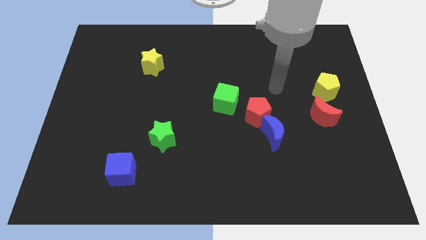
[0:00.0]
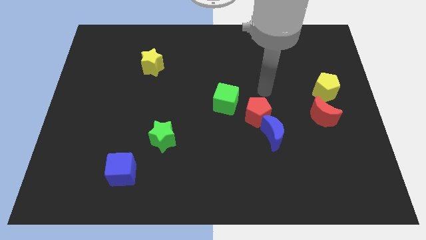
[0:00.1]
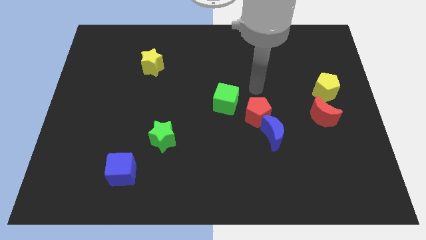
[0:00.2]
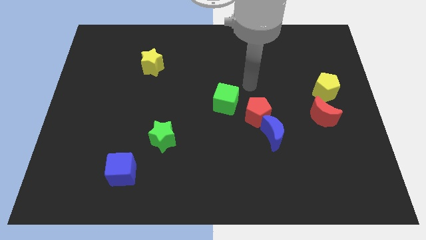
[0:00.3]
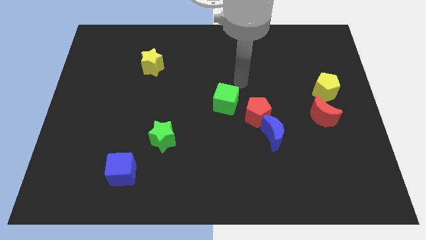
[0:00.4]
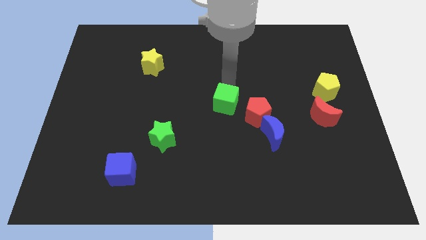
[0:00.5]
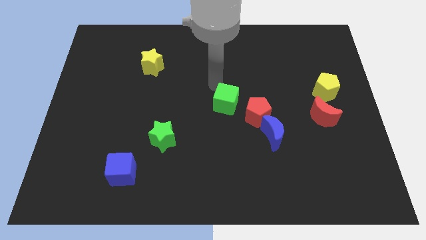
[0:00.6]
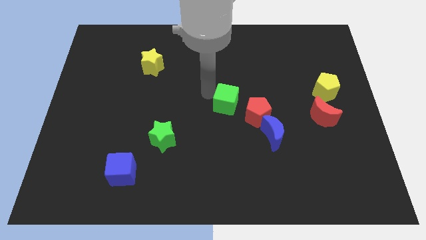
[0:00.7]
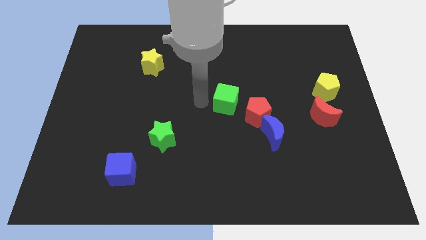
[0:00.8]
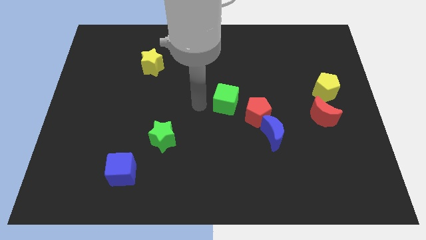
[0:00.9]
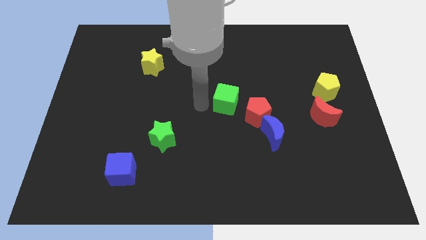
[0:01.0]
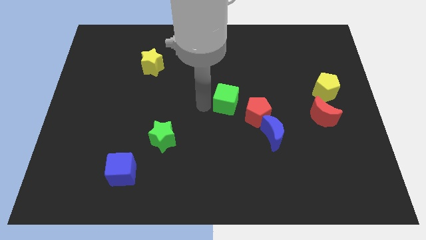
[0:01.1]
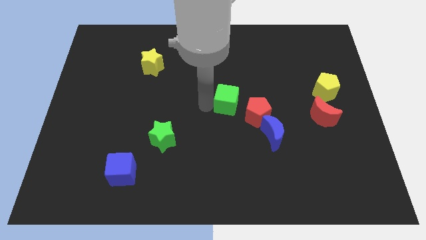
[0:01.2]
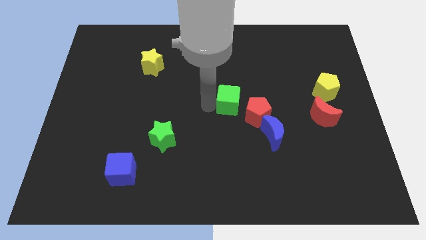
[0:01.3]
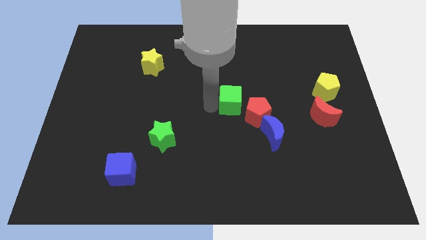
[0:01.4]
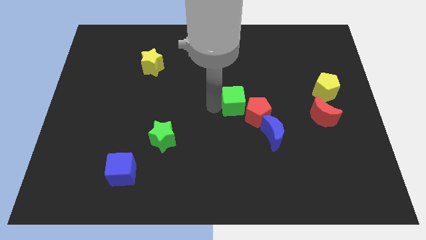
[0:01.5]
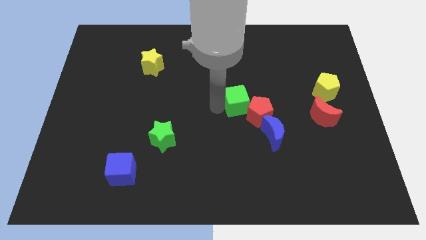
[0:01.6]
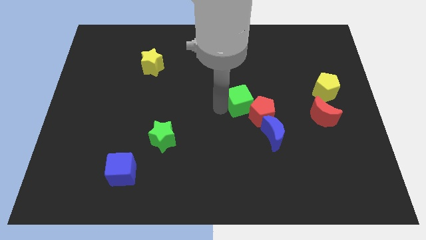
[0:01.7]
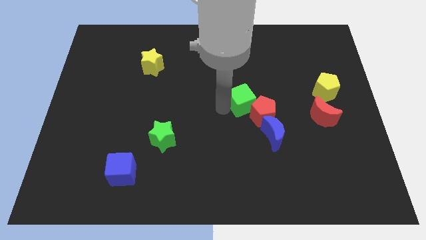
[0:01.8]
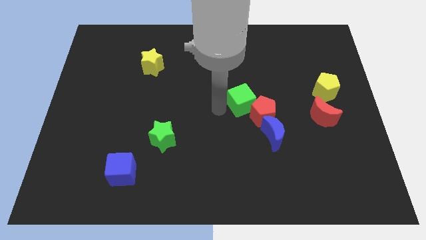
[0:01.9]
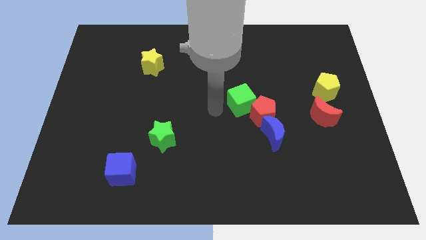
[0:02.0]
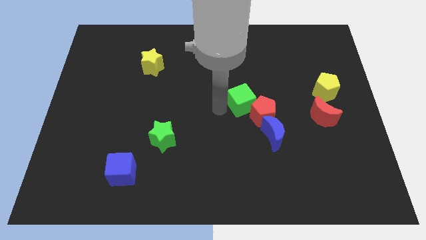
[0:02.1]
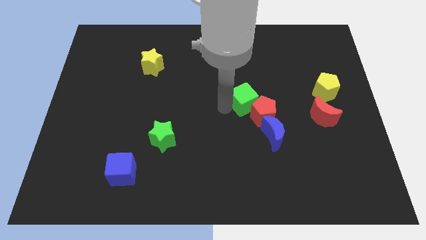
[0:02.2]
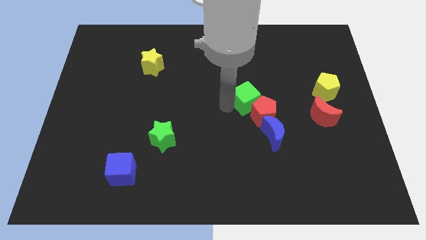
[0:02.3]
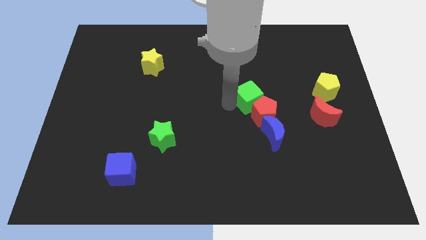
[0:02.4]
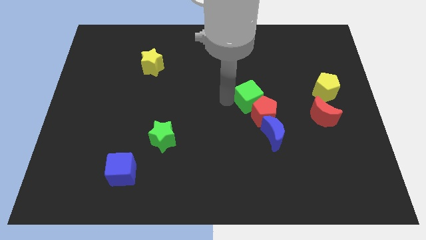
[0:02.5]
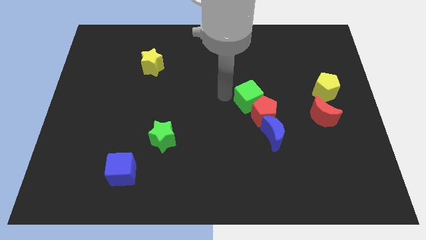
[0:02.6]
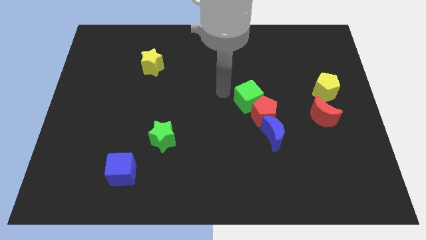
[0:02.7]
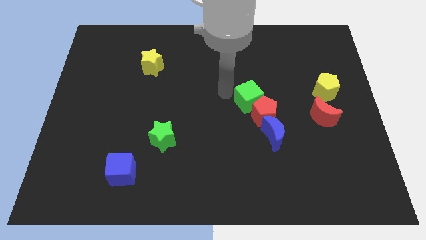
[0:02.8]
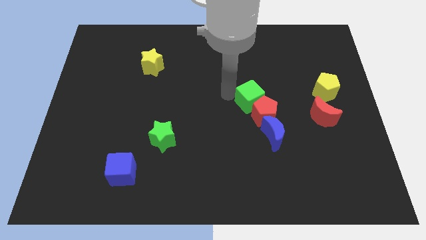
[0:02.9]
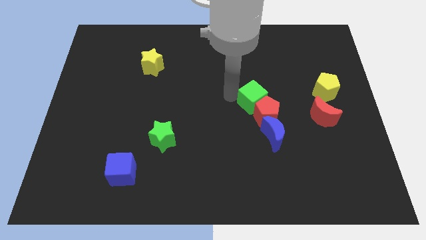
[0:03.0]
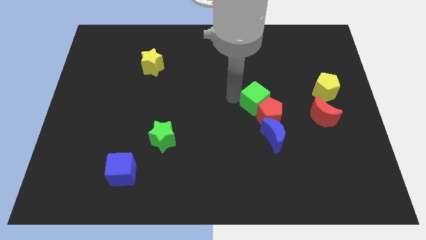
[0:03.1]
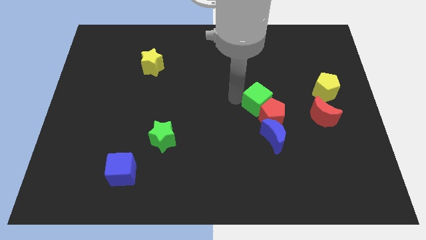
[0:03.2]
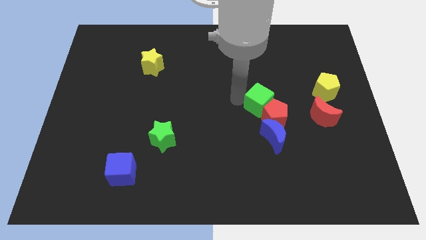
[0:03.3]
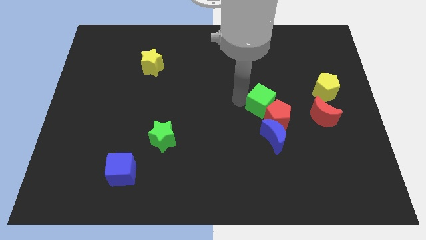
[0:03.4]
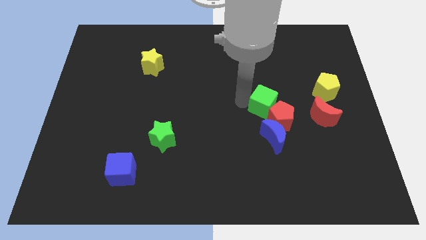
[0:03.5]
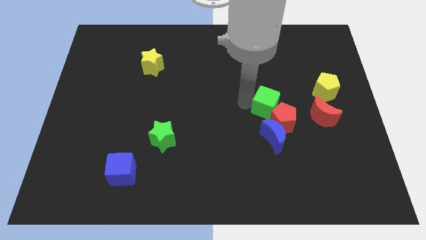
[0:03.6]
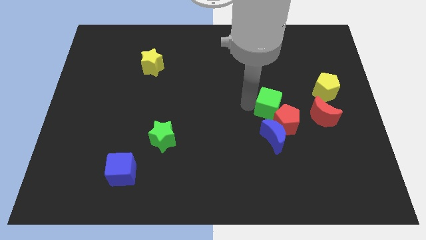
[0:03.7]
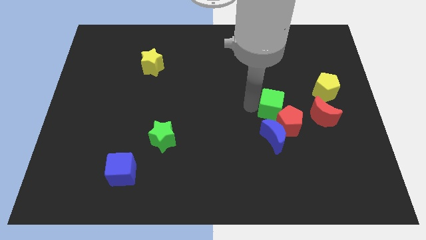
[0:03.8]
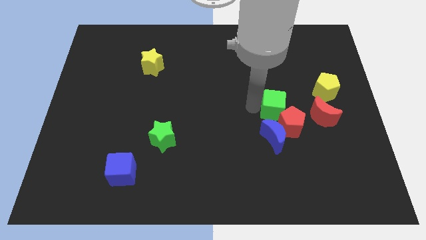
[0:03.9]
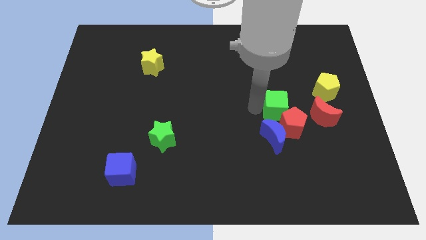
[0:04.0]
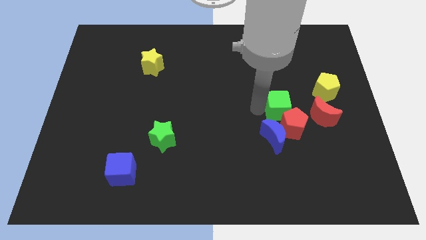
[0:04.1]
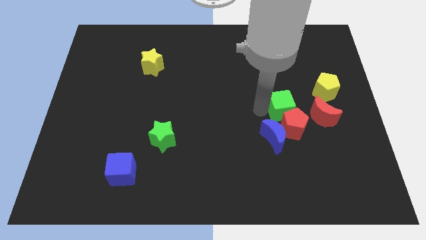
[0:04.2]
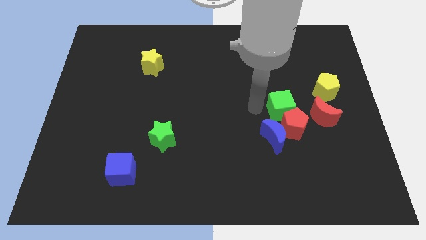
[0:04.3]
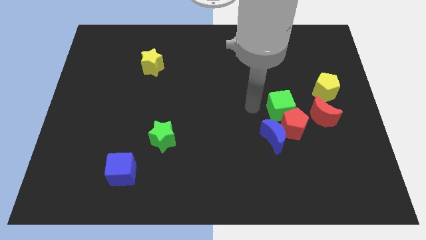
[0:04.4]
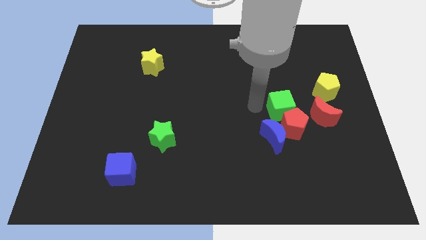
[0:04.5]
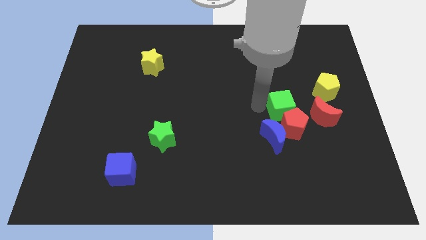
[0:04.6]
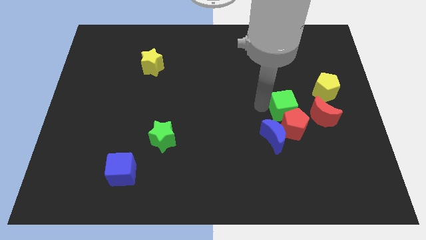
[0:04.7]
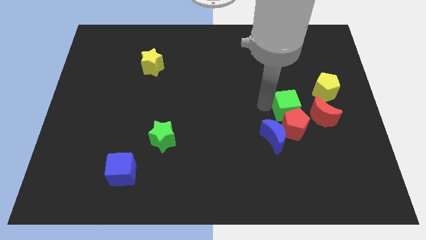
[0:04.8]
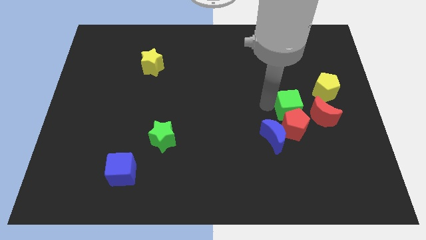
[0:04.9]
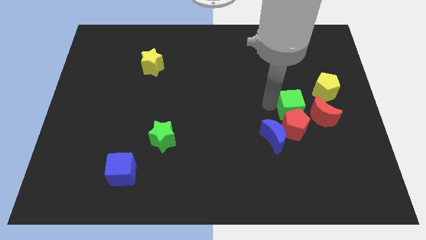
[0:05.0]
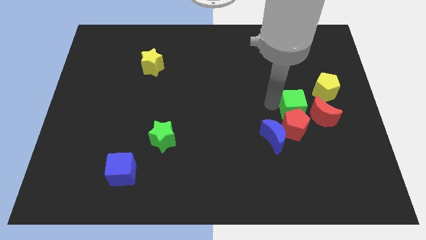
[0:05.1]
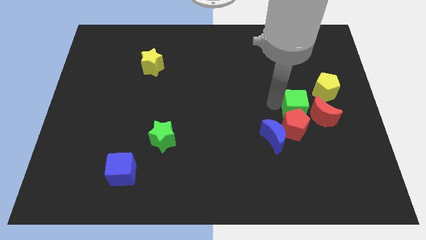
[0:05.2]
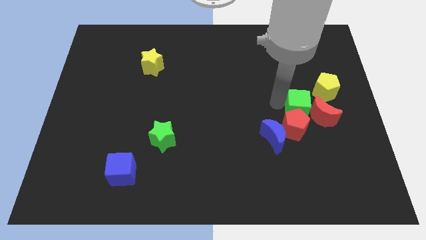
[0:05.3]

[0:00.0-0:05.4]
slide the green cube to the red moon

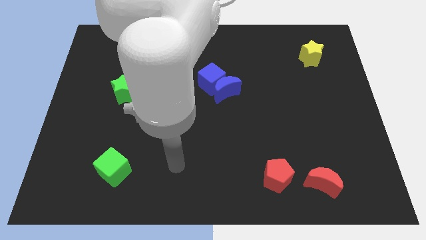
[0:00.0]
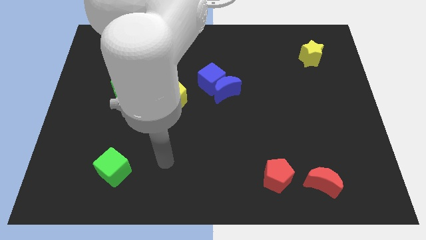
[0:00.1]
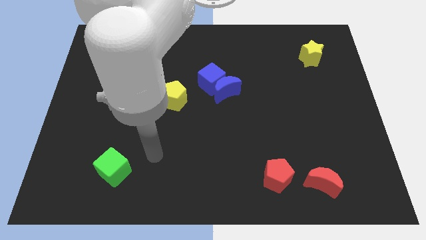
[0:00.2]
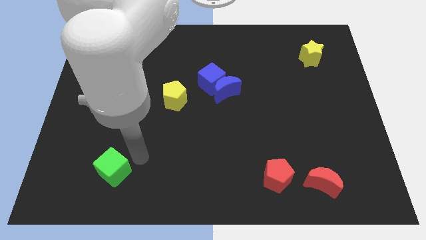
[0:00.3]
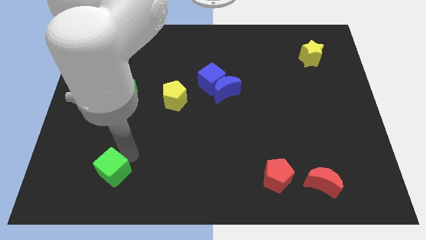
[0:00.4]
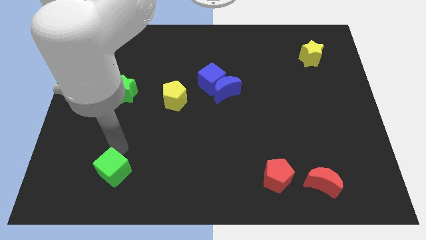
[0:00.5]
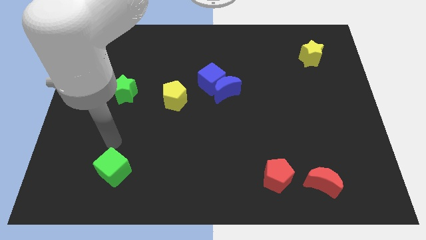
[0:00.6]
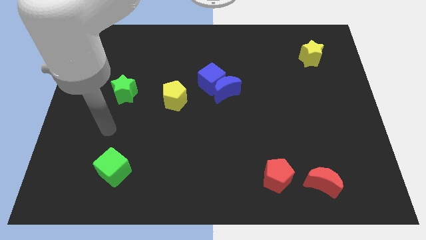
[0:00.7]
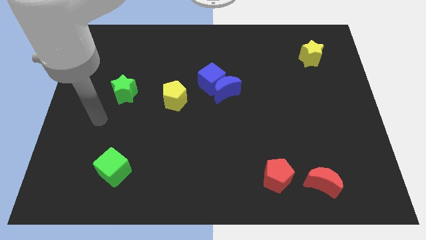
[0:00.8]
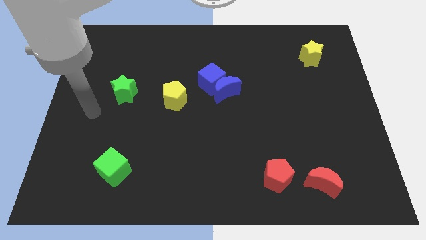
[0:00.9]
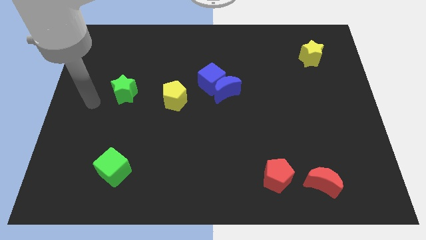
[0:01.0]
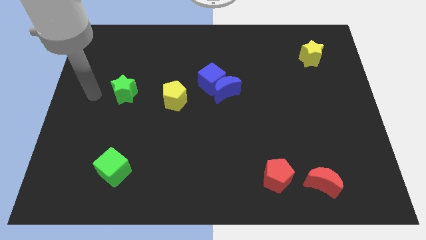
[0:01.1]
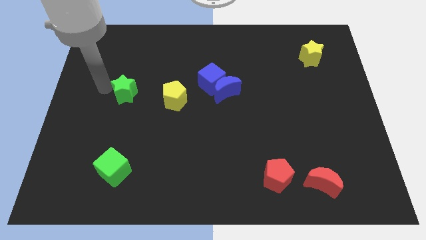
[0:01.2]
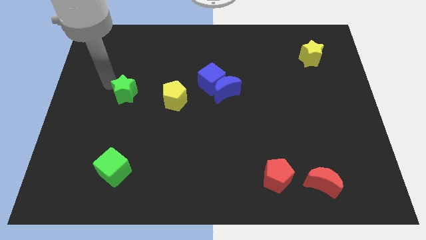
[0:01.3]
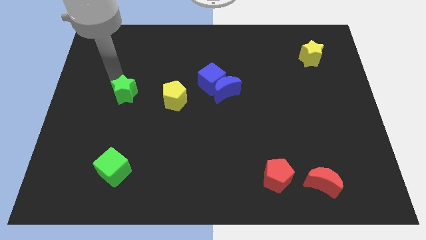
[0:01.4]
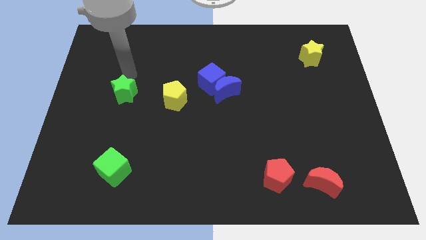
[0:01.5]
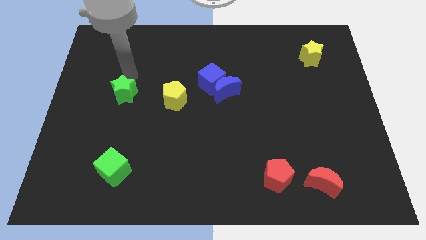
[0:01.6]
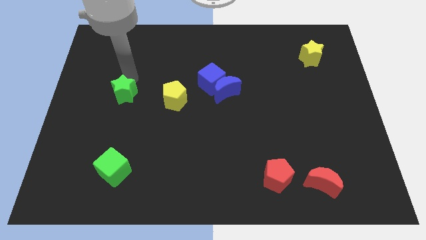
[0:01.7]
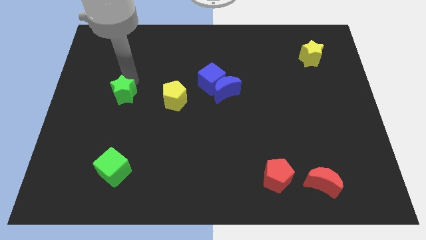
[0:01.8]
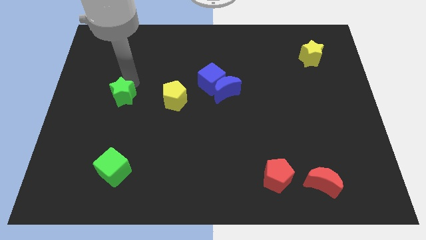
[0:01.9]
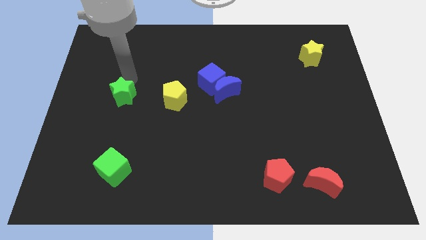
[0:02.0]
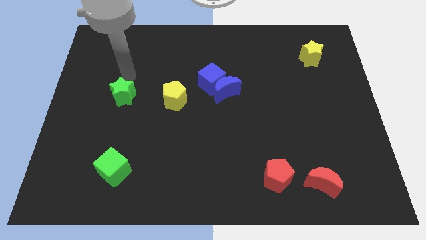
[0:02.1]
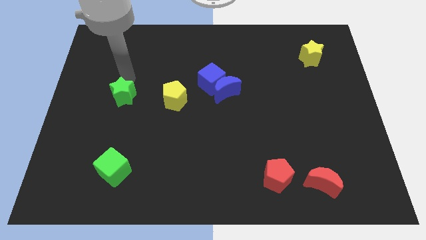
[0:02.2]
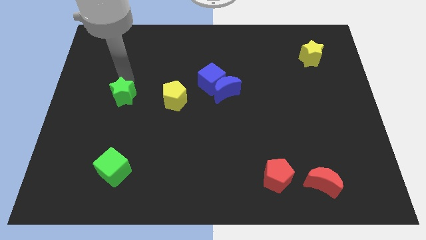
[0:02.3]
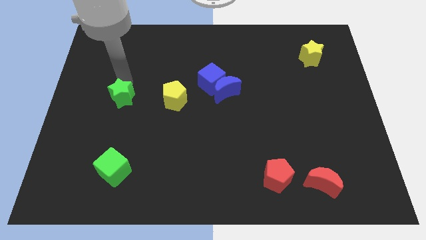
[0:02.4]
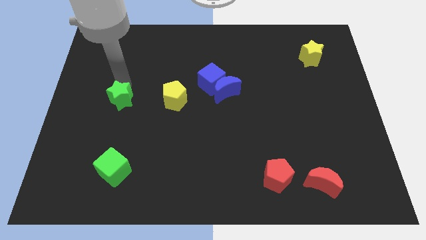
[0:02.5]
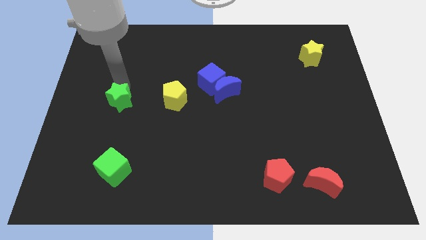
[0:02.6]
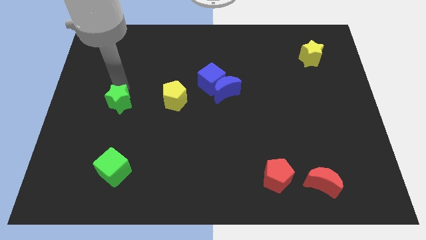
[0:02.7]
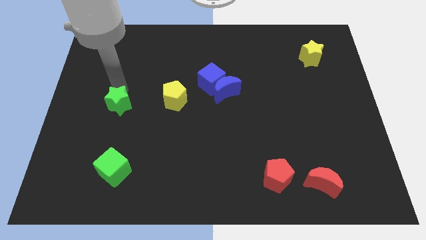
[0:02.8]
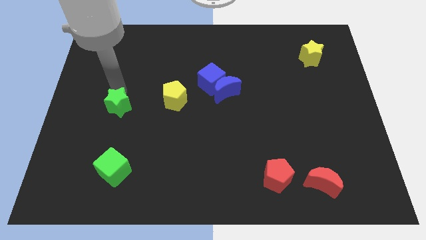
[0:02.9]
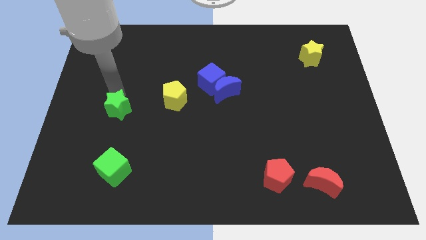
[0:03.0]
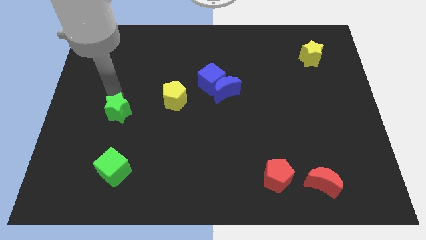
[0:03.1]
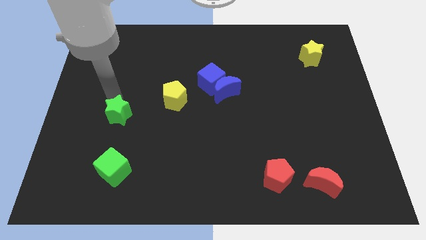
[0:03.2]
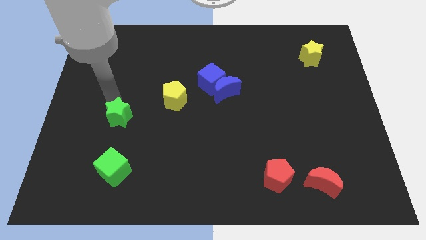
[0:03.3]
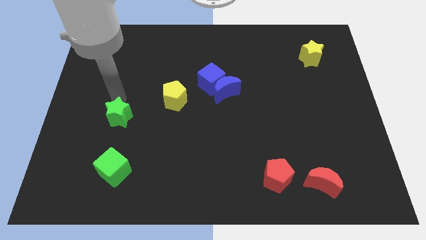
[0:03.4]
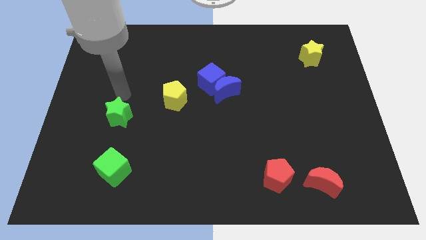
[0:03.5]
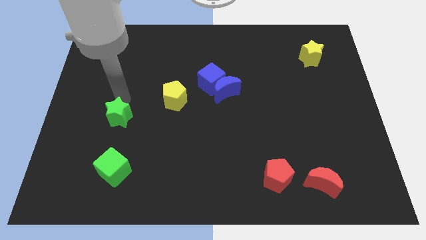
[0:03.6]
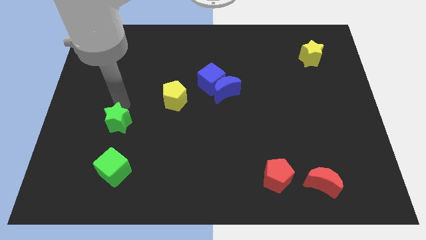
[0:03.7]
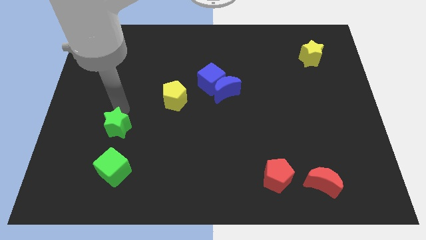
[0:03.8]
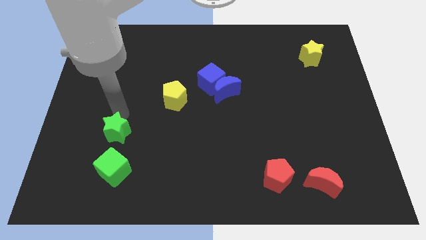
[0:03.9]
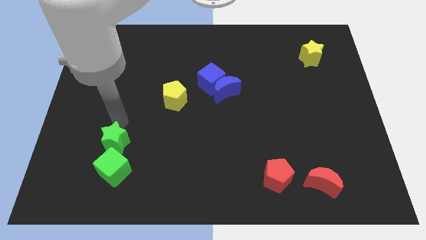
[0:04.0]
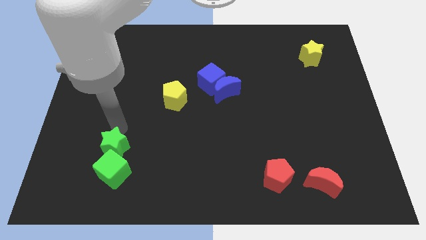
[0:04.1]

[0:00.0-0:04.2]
put the green star close to the green cube
